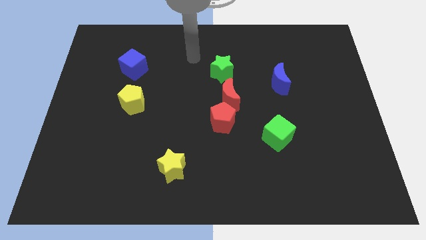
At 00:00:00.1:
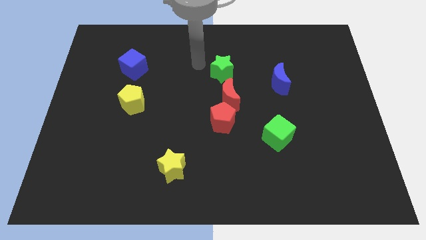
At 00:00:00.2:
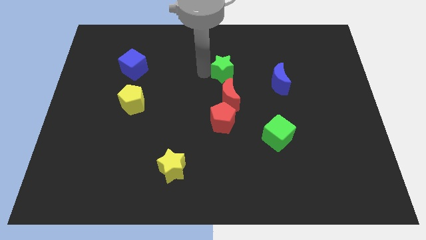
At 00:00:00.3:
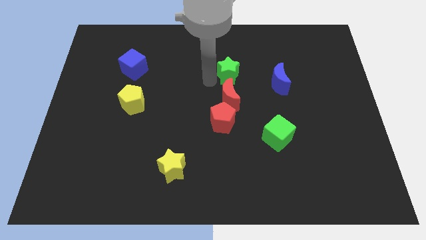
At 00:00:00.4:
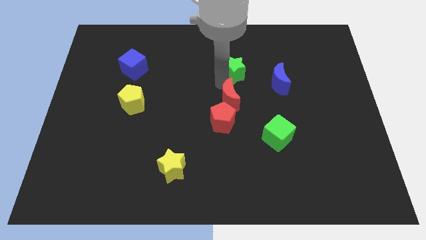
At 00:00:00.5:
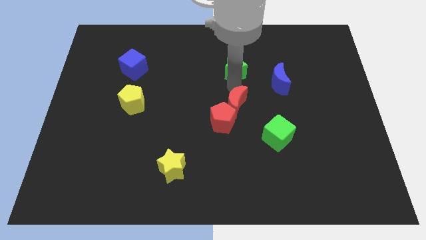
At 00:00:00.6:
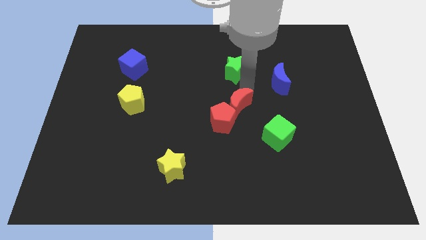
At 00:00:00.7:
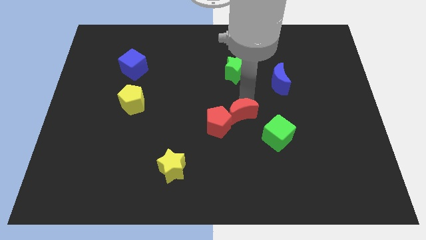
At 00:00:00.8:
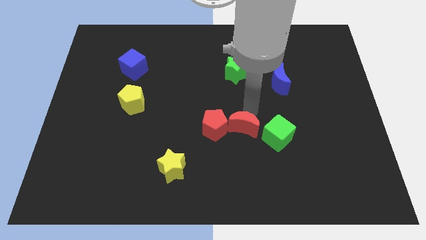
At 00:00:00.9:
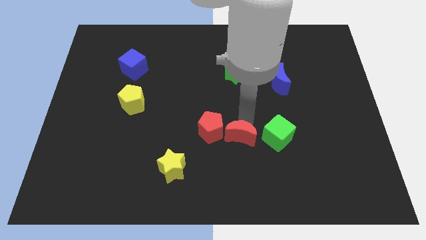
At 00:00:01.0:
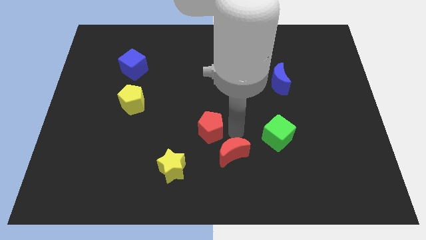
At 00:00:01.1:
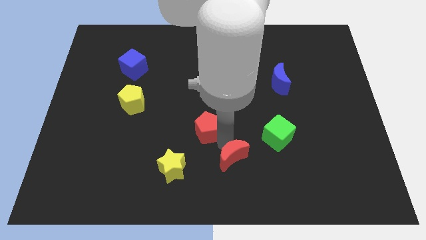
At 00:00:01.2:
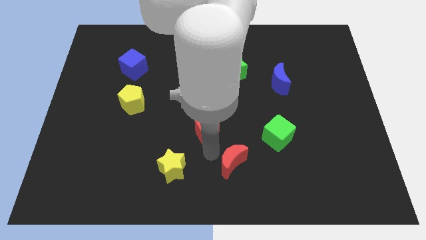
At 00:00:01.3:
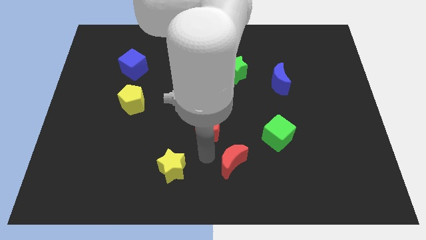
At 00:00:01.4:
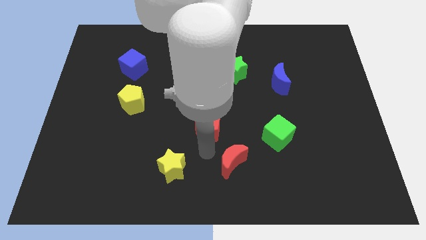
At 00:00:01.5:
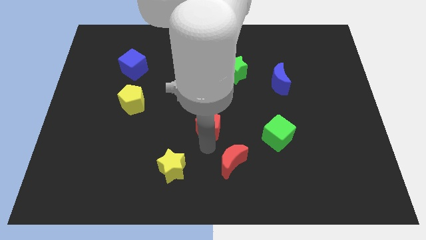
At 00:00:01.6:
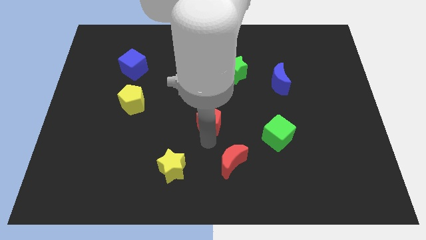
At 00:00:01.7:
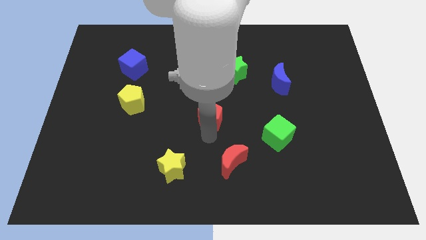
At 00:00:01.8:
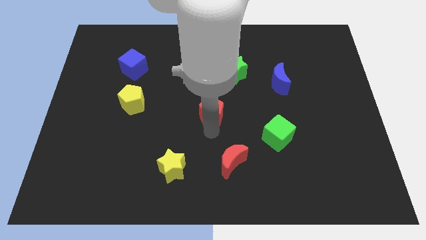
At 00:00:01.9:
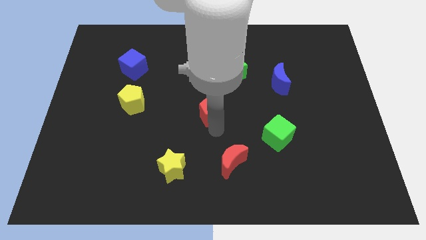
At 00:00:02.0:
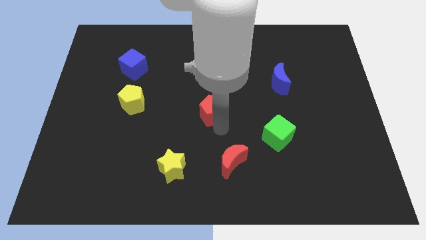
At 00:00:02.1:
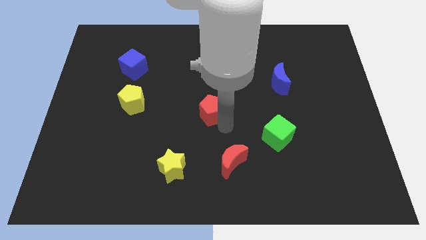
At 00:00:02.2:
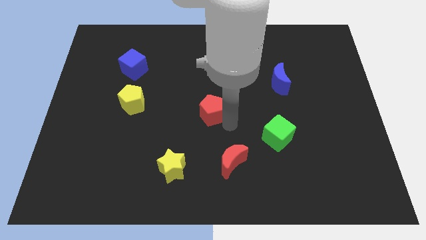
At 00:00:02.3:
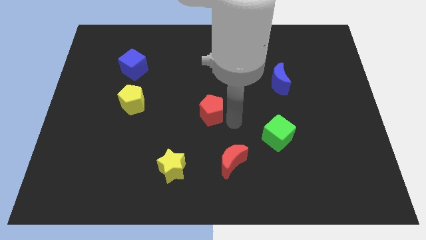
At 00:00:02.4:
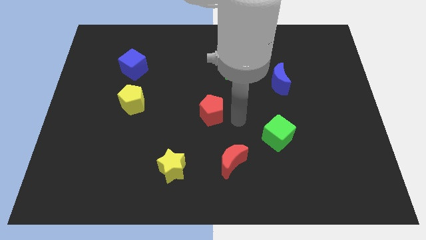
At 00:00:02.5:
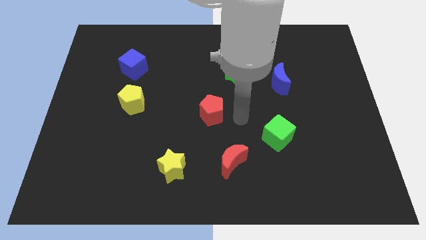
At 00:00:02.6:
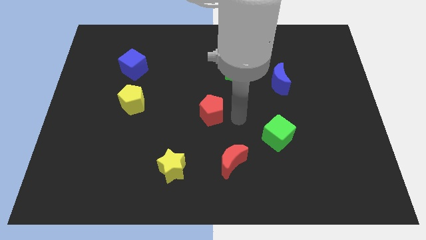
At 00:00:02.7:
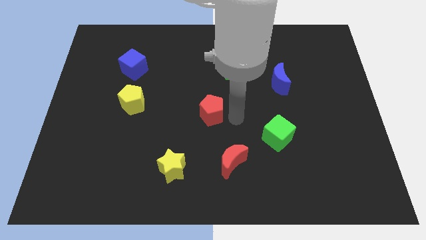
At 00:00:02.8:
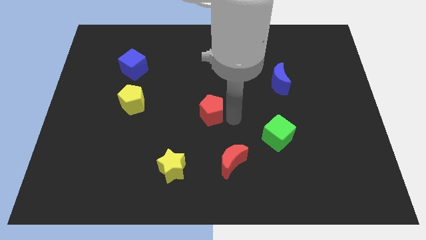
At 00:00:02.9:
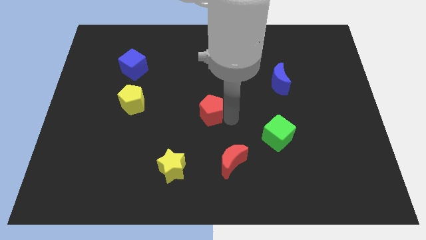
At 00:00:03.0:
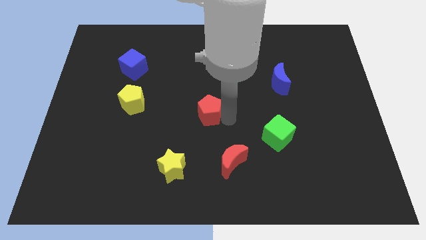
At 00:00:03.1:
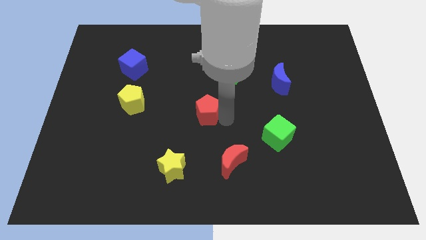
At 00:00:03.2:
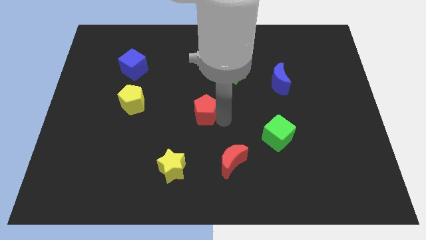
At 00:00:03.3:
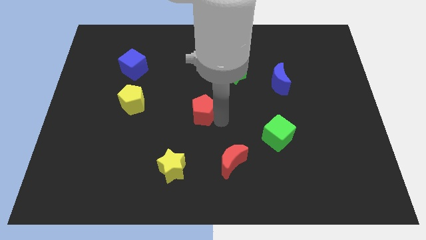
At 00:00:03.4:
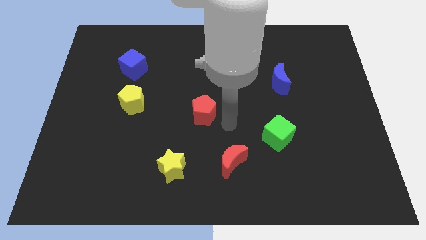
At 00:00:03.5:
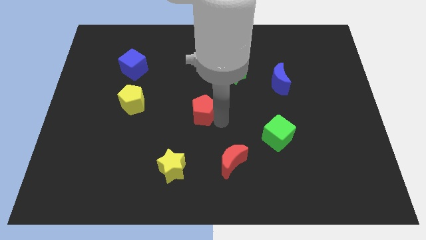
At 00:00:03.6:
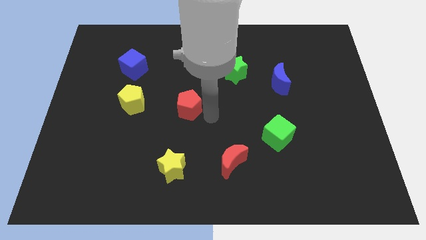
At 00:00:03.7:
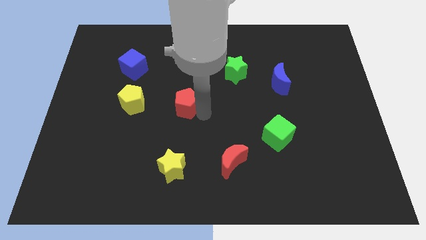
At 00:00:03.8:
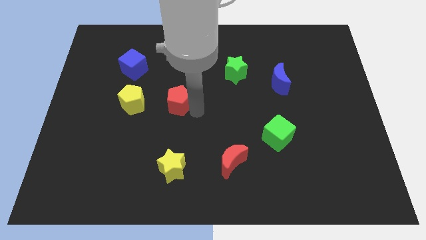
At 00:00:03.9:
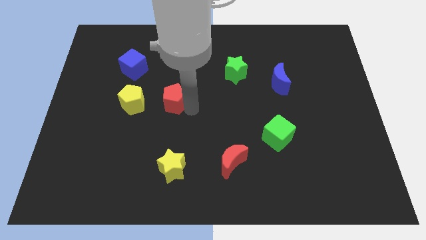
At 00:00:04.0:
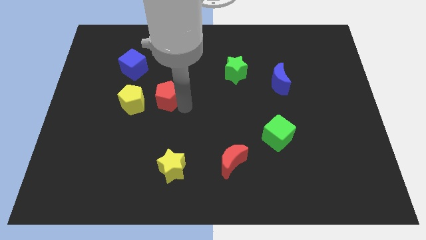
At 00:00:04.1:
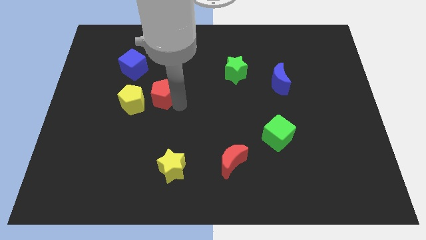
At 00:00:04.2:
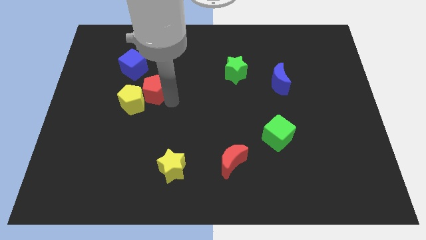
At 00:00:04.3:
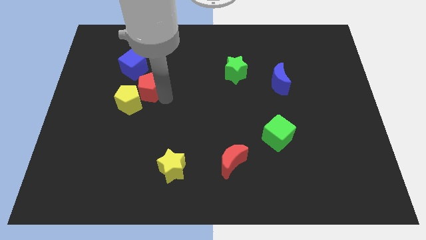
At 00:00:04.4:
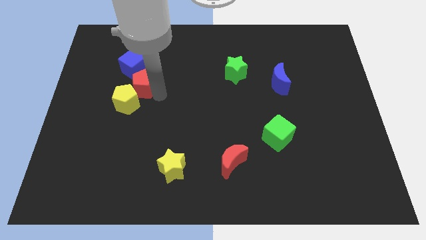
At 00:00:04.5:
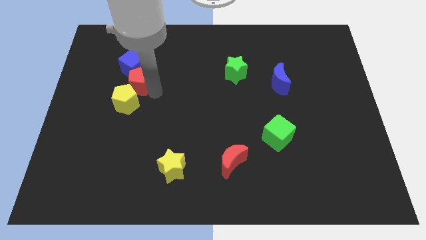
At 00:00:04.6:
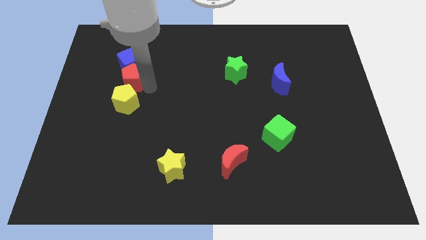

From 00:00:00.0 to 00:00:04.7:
push the red pentagon to the bottom left side of the blue cube

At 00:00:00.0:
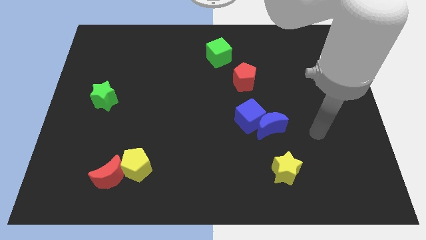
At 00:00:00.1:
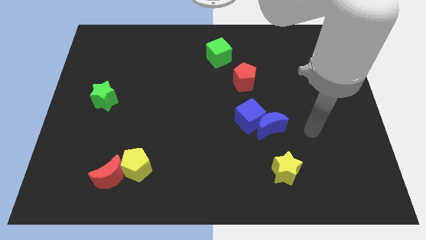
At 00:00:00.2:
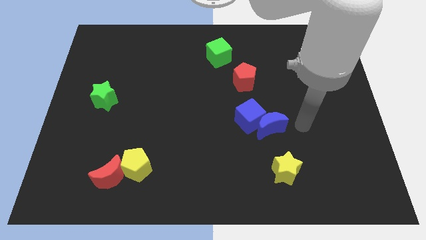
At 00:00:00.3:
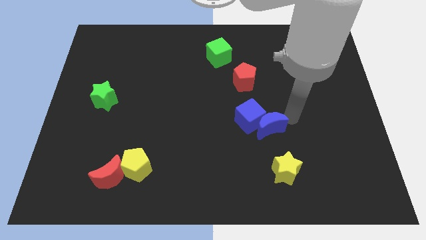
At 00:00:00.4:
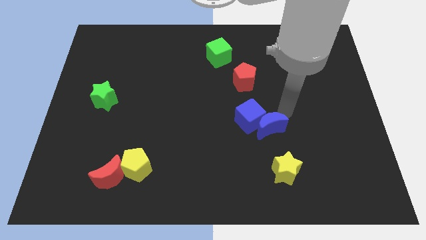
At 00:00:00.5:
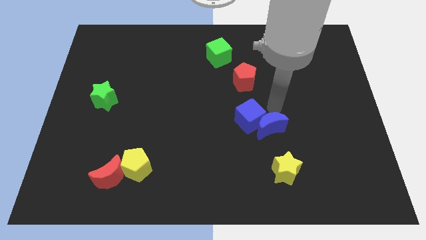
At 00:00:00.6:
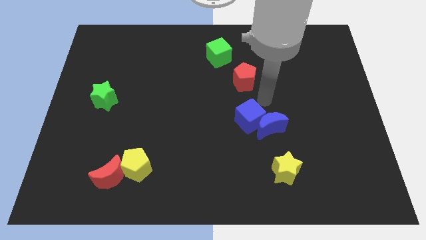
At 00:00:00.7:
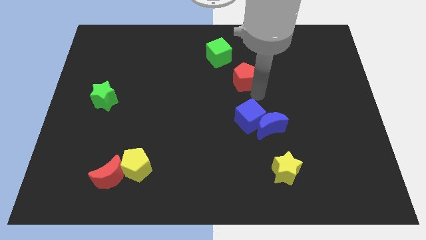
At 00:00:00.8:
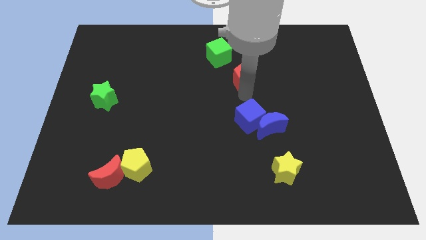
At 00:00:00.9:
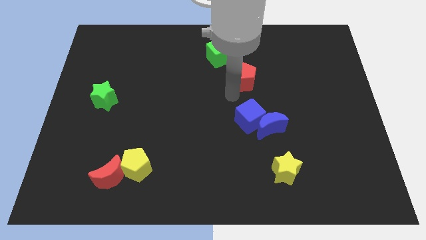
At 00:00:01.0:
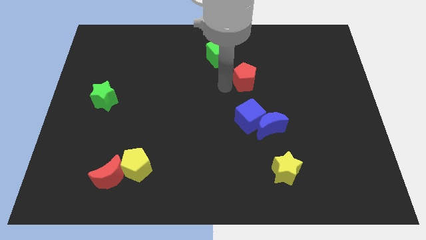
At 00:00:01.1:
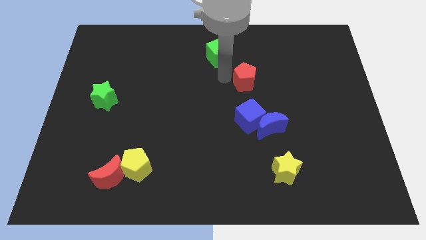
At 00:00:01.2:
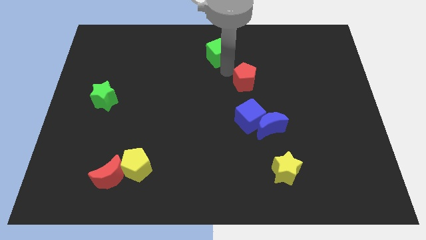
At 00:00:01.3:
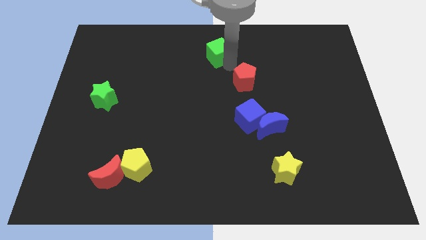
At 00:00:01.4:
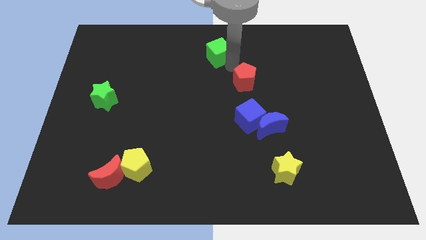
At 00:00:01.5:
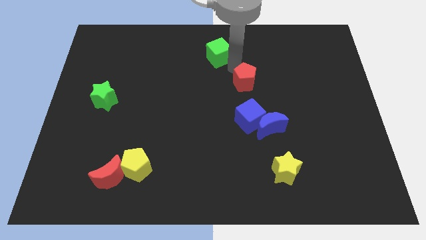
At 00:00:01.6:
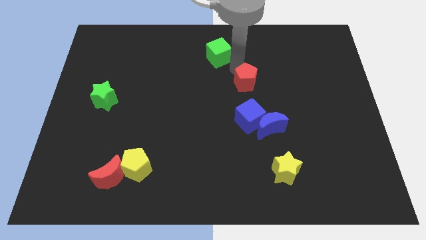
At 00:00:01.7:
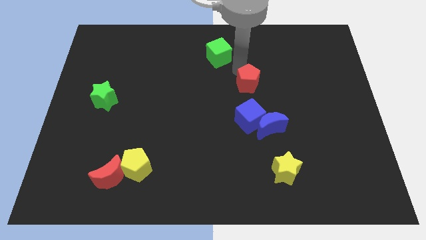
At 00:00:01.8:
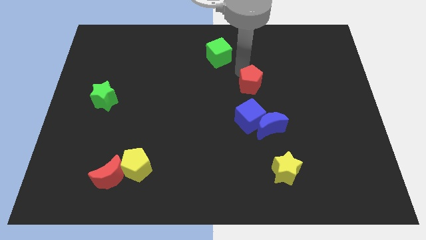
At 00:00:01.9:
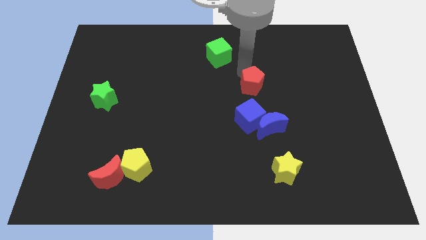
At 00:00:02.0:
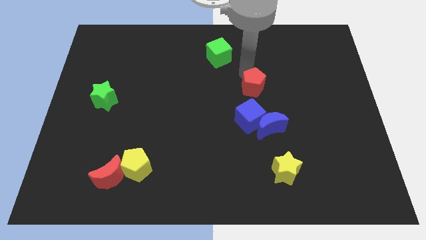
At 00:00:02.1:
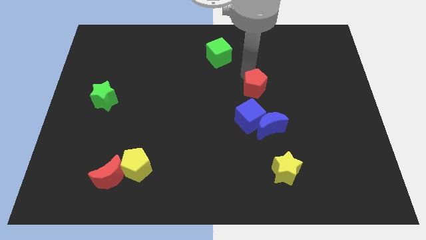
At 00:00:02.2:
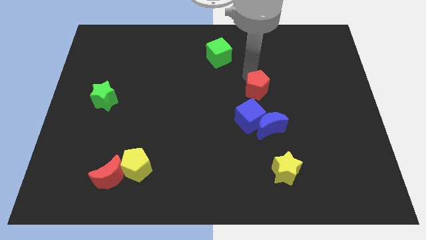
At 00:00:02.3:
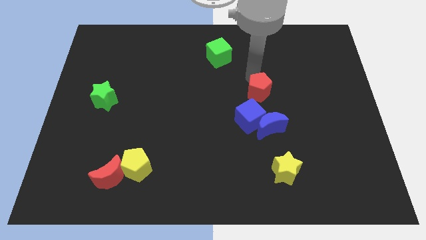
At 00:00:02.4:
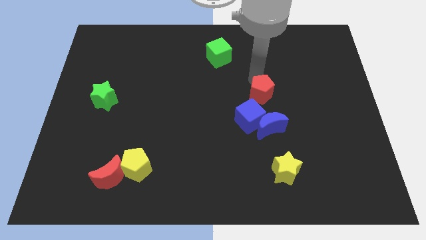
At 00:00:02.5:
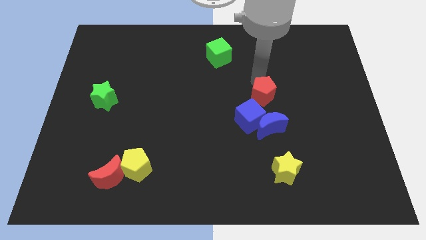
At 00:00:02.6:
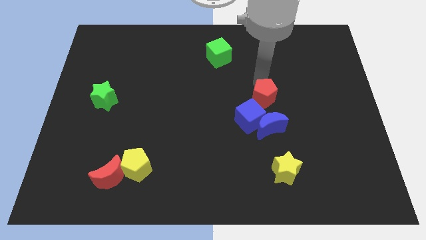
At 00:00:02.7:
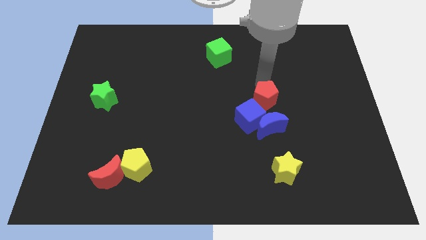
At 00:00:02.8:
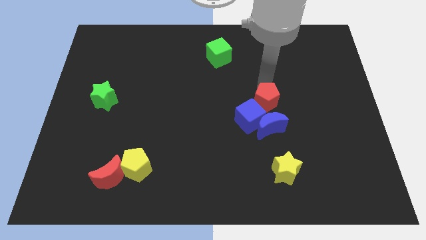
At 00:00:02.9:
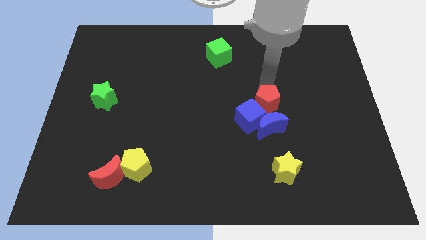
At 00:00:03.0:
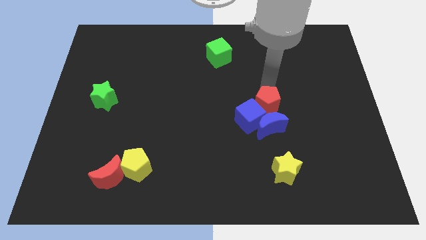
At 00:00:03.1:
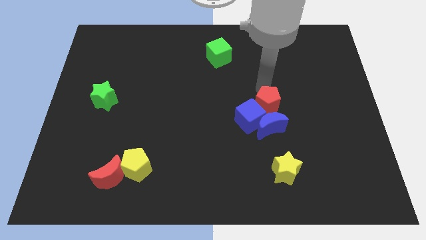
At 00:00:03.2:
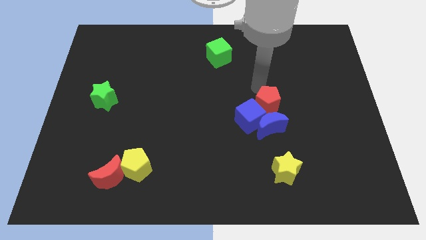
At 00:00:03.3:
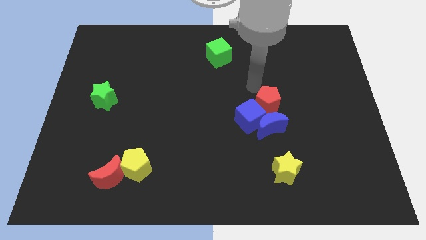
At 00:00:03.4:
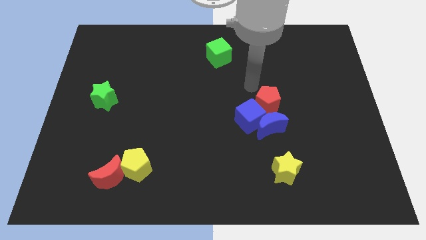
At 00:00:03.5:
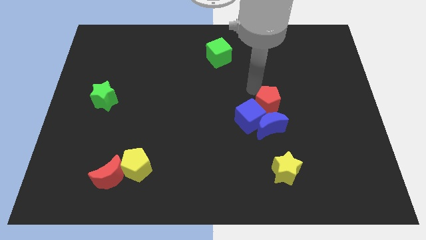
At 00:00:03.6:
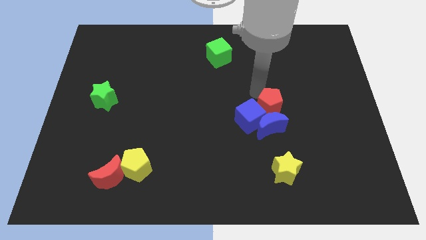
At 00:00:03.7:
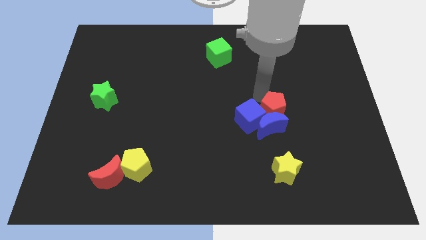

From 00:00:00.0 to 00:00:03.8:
put the red pentagon above the yellow star
